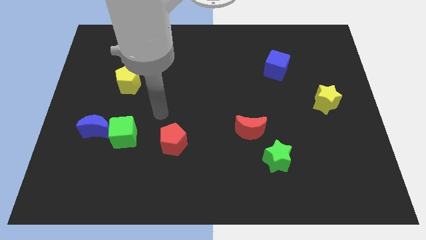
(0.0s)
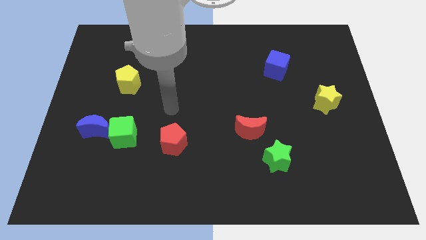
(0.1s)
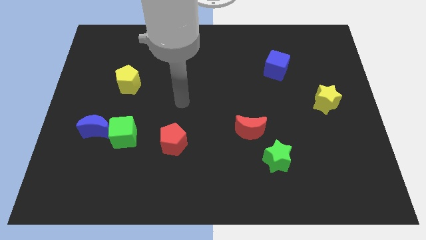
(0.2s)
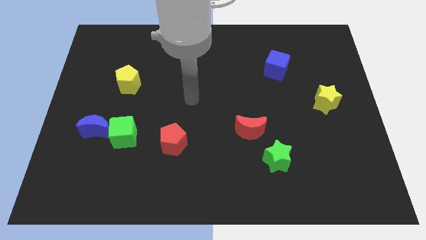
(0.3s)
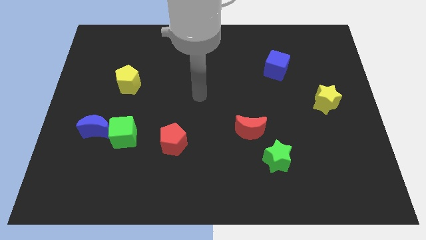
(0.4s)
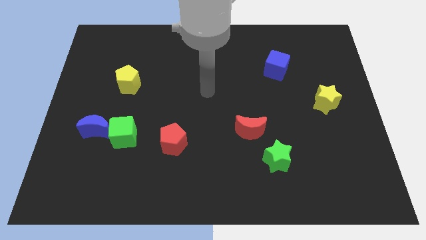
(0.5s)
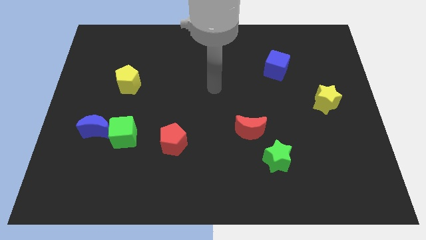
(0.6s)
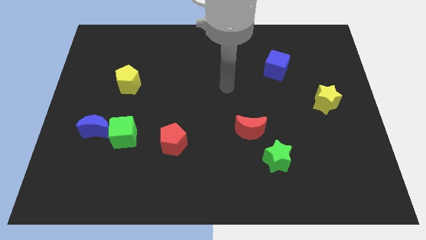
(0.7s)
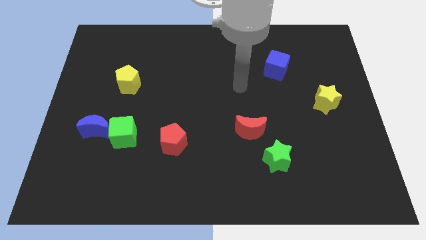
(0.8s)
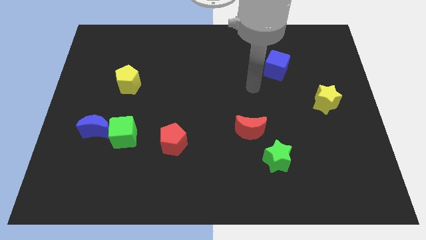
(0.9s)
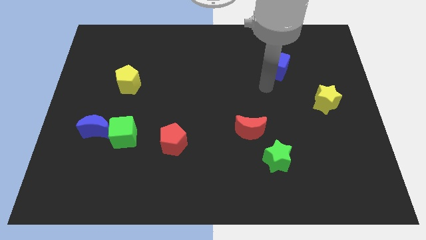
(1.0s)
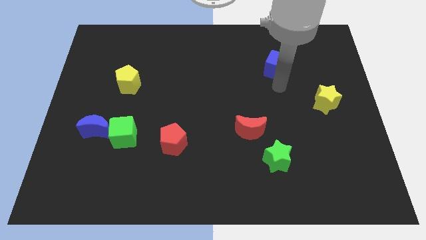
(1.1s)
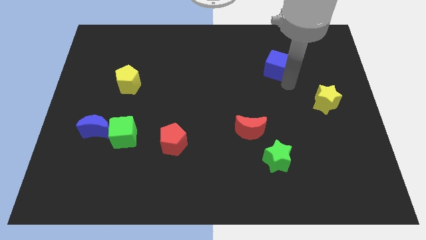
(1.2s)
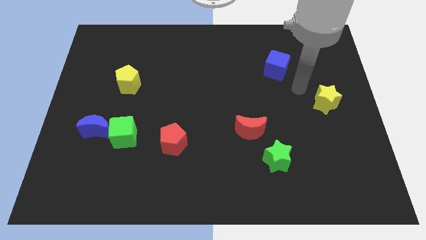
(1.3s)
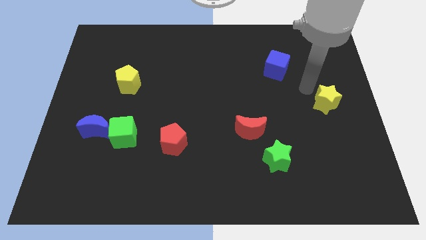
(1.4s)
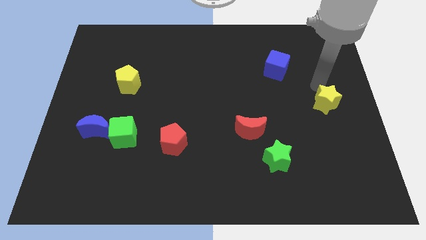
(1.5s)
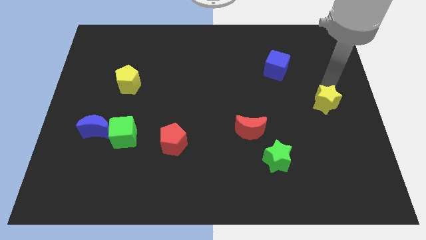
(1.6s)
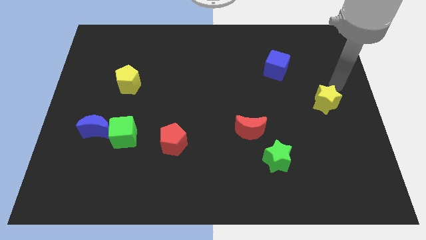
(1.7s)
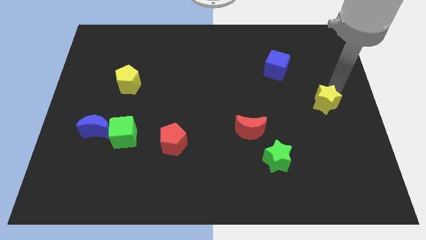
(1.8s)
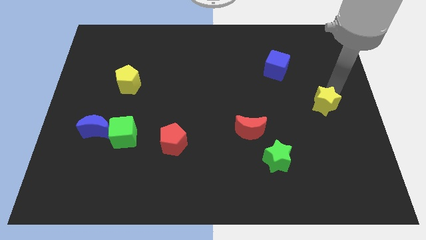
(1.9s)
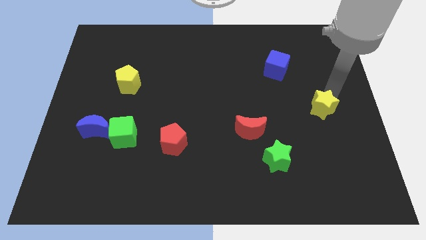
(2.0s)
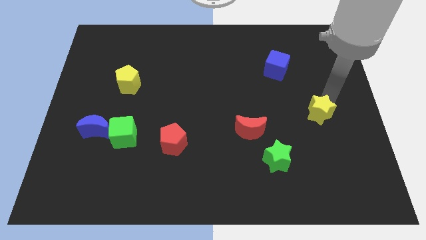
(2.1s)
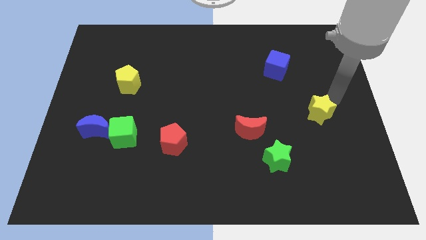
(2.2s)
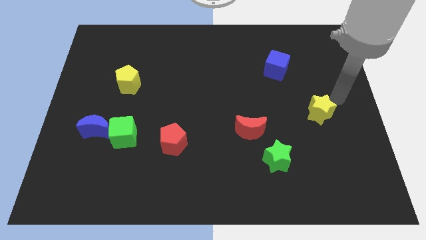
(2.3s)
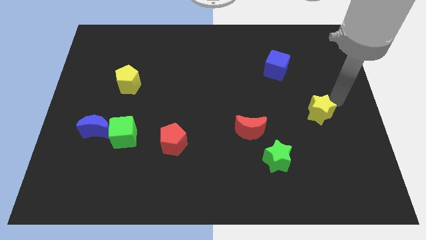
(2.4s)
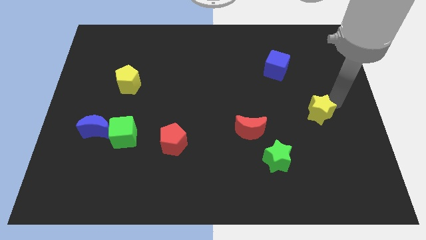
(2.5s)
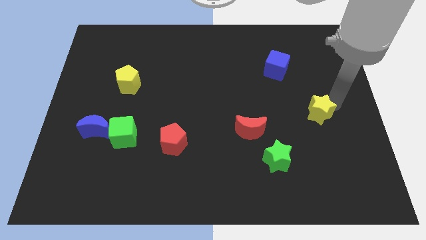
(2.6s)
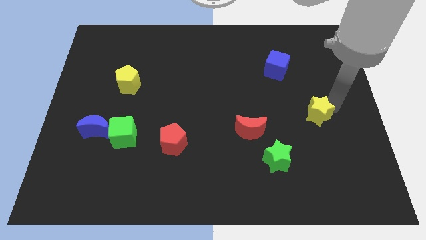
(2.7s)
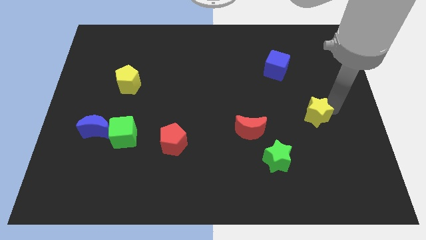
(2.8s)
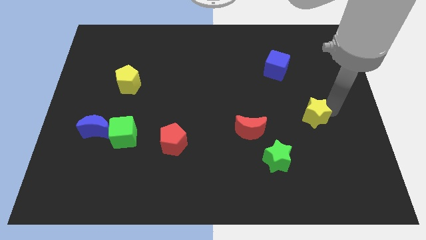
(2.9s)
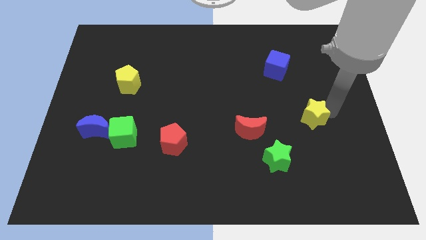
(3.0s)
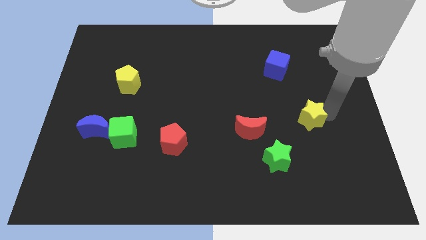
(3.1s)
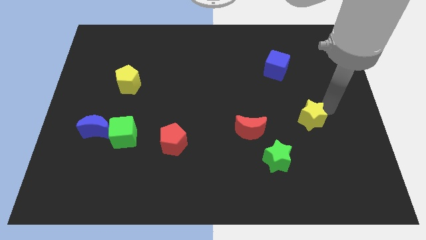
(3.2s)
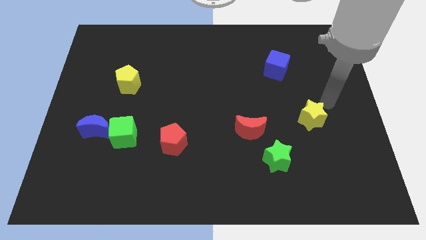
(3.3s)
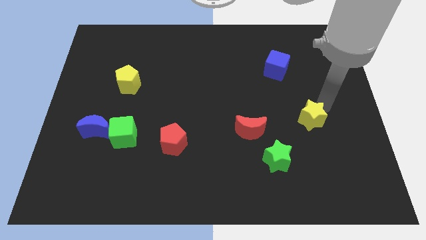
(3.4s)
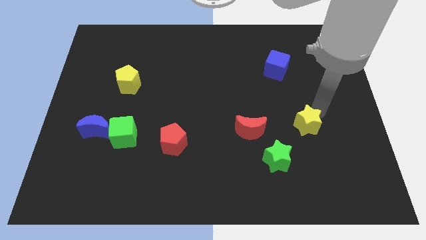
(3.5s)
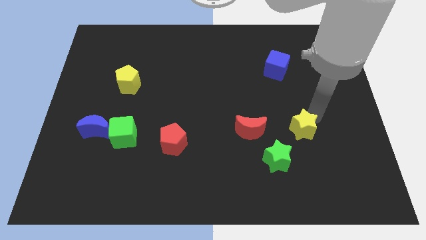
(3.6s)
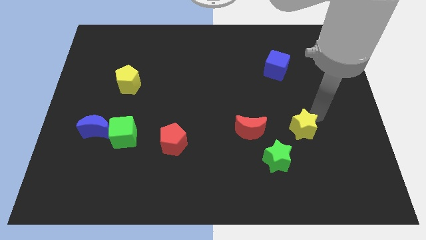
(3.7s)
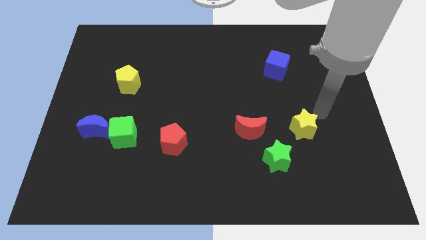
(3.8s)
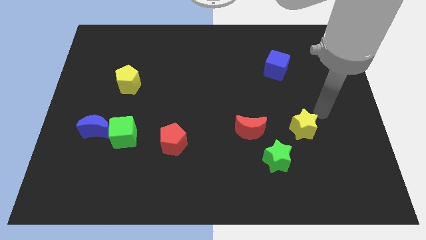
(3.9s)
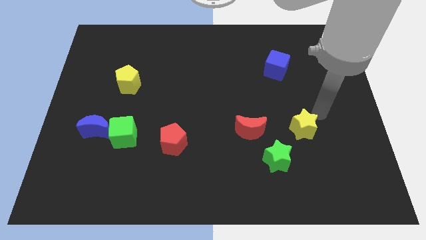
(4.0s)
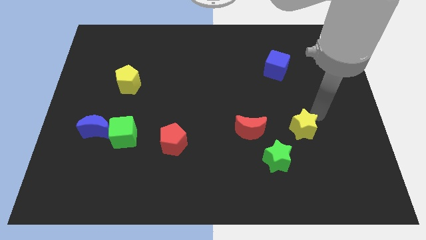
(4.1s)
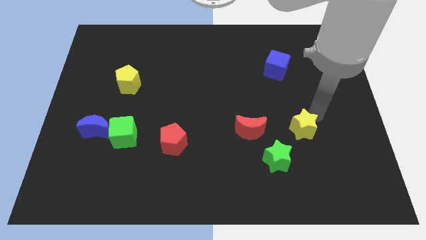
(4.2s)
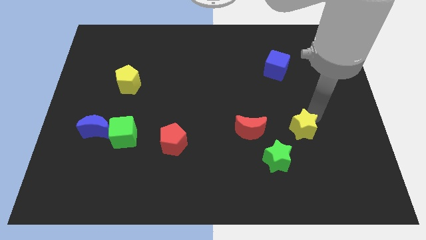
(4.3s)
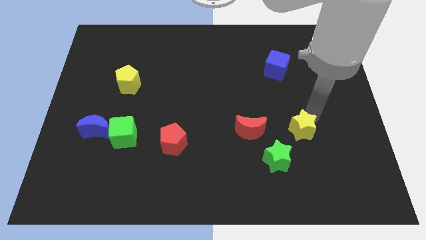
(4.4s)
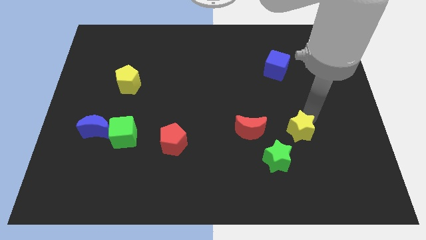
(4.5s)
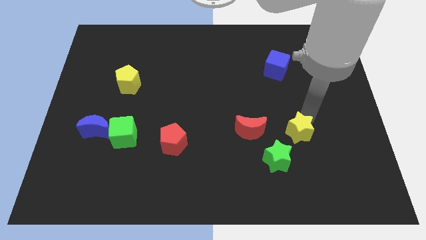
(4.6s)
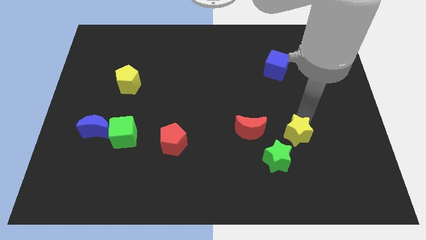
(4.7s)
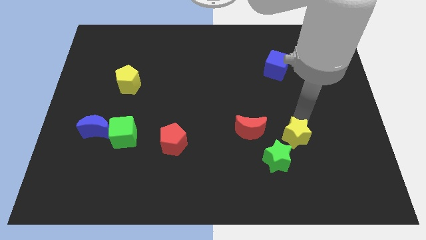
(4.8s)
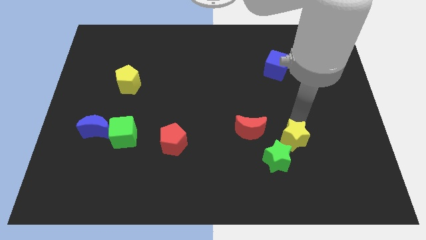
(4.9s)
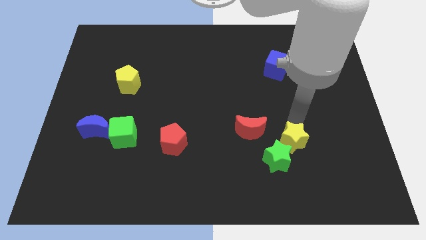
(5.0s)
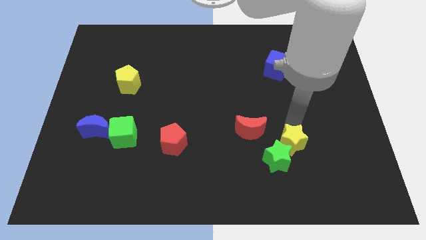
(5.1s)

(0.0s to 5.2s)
move the yellow star next to the green star

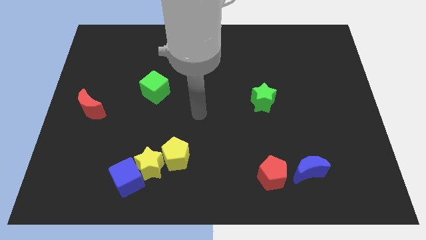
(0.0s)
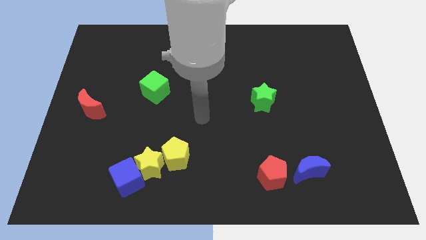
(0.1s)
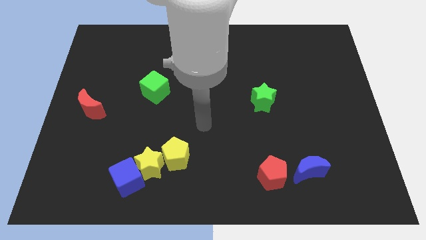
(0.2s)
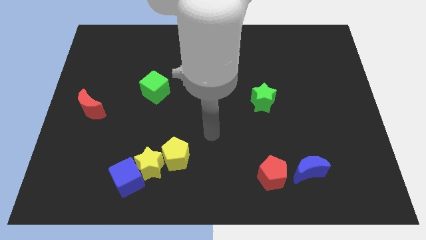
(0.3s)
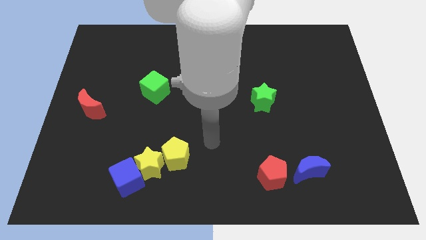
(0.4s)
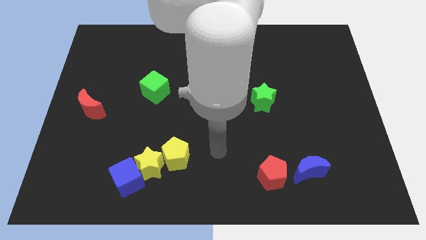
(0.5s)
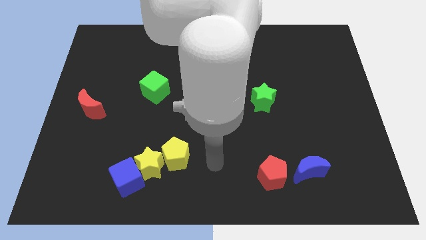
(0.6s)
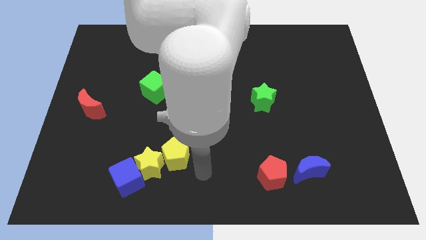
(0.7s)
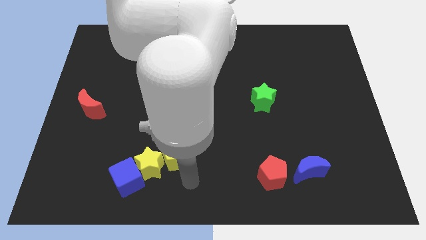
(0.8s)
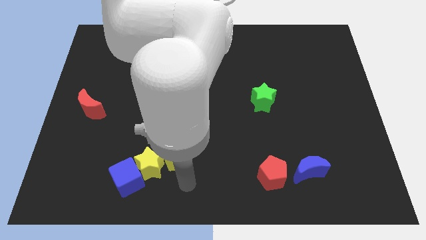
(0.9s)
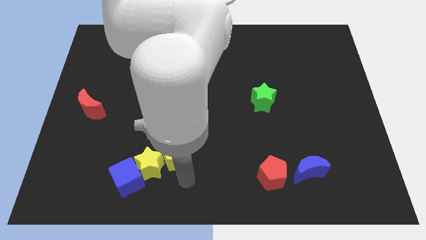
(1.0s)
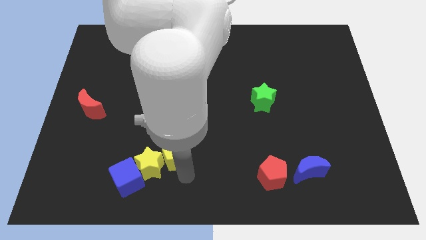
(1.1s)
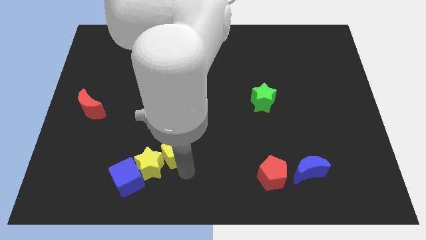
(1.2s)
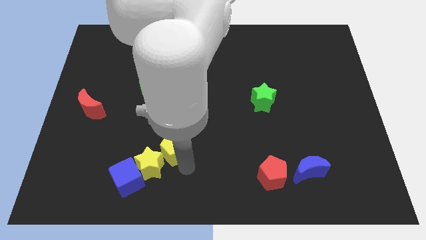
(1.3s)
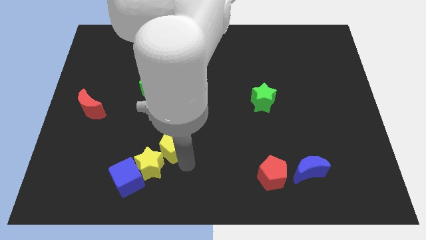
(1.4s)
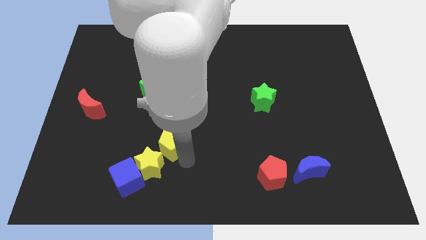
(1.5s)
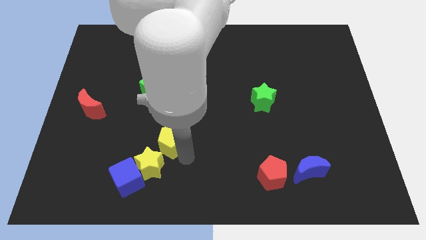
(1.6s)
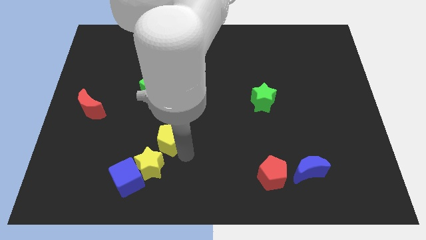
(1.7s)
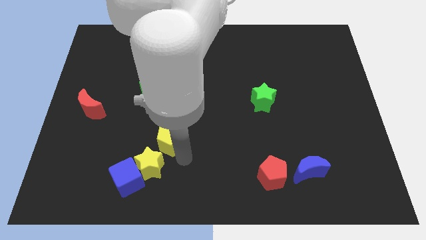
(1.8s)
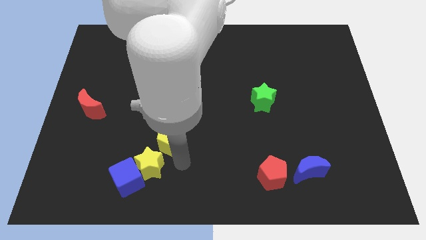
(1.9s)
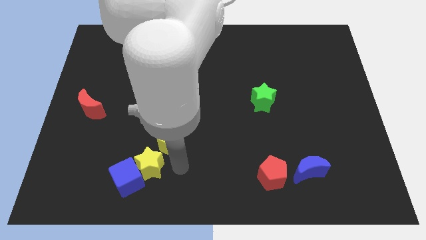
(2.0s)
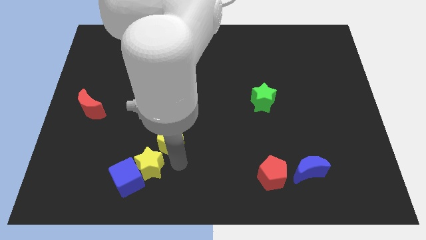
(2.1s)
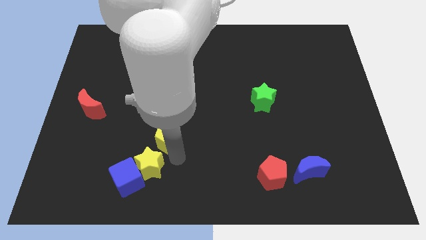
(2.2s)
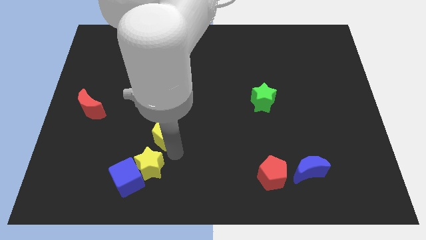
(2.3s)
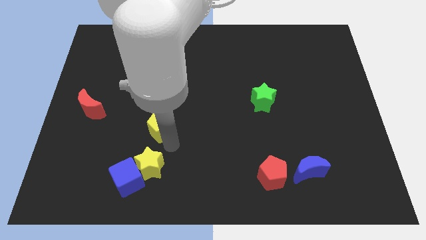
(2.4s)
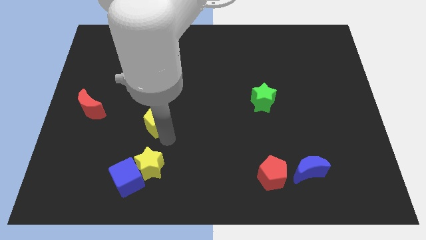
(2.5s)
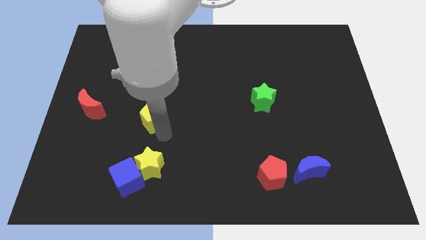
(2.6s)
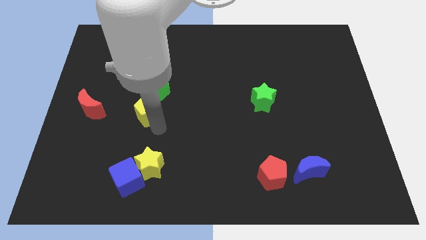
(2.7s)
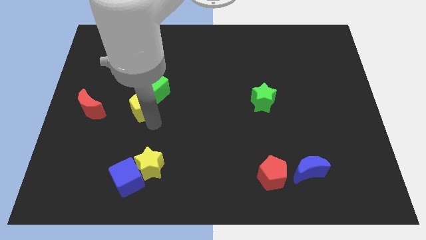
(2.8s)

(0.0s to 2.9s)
slide the yellow pentagon next to the green cube
